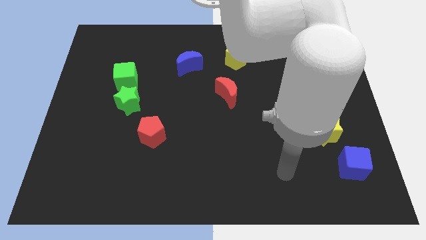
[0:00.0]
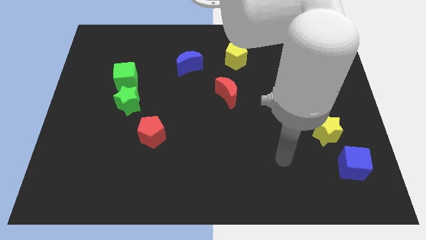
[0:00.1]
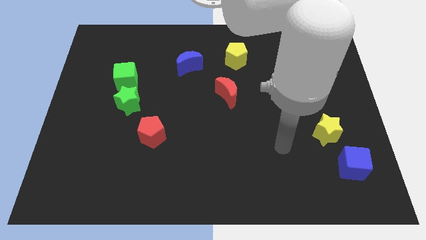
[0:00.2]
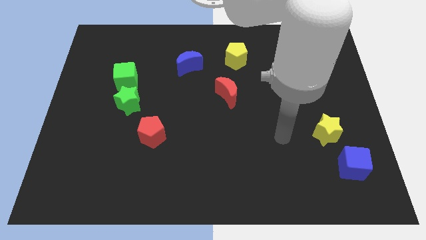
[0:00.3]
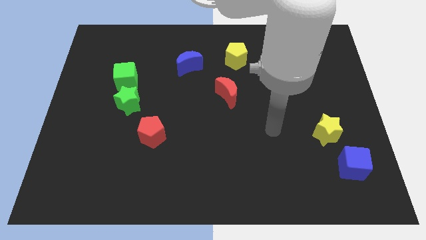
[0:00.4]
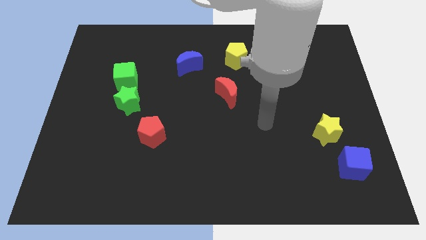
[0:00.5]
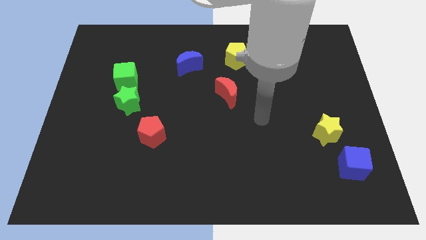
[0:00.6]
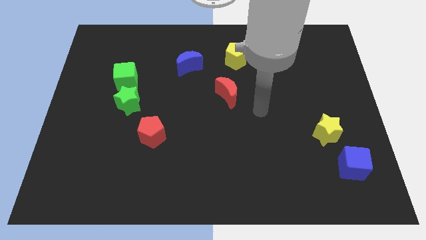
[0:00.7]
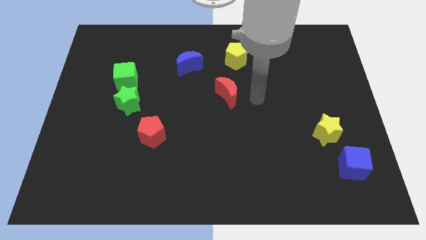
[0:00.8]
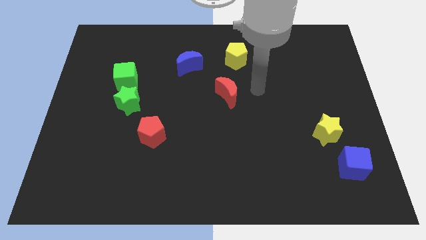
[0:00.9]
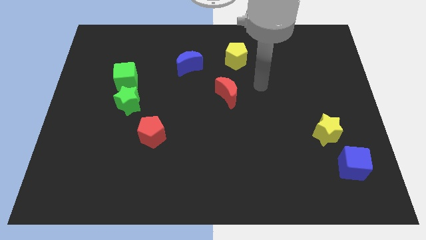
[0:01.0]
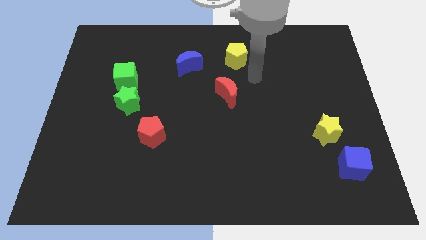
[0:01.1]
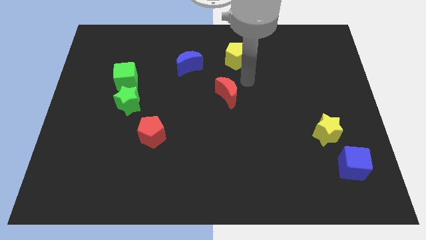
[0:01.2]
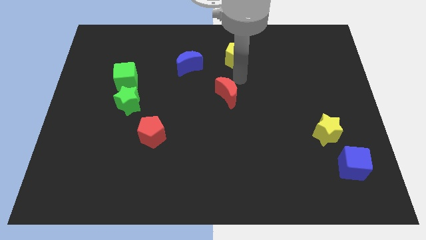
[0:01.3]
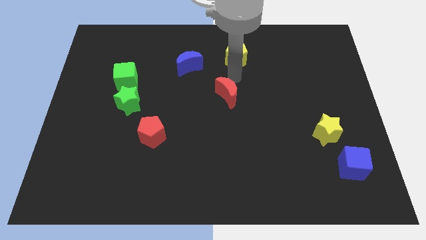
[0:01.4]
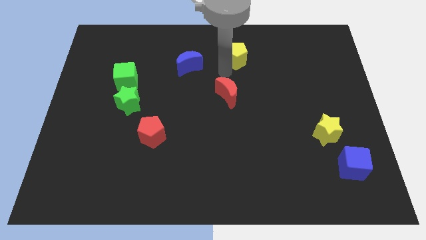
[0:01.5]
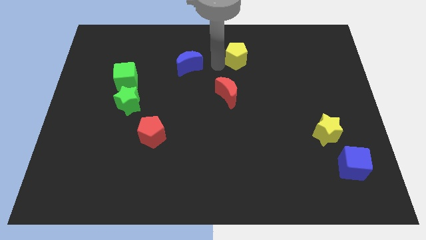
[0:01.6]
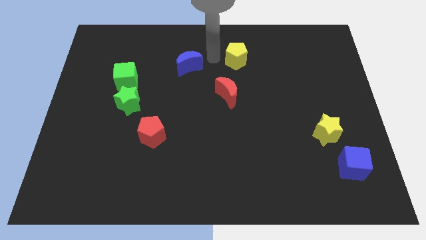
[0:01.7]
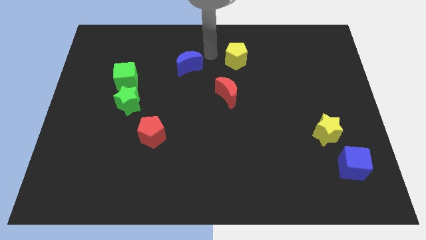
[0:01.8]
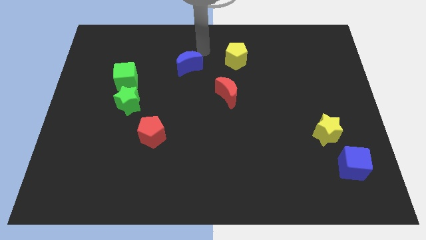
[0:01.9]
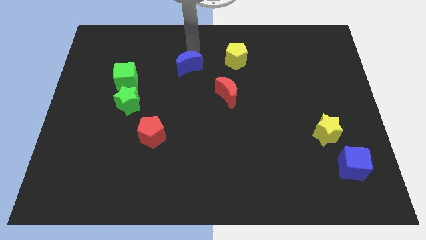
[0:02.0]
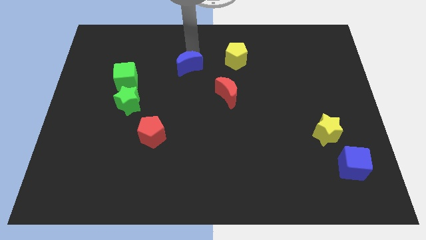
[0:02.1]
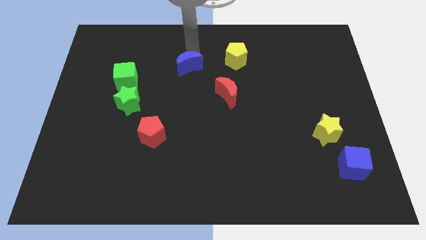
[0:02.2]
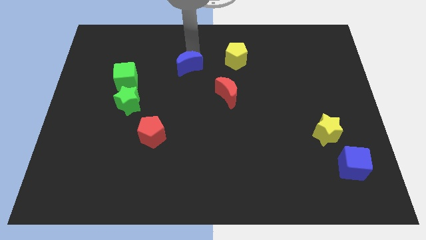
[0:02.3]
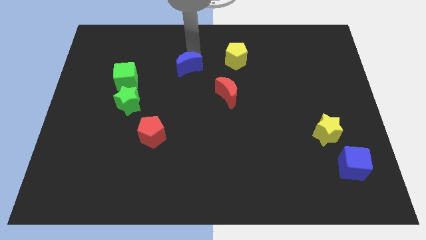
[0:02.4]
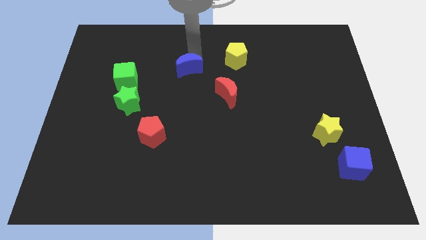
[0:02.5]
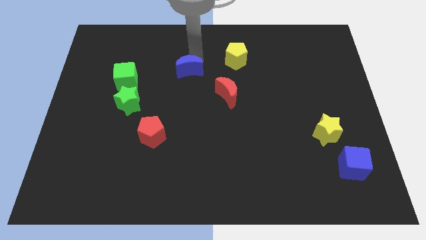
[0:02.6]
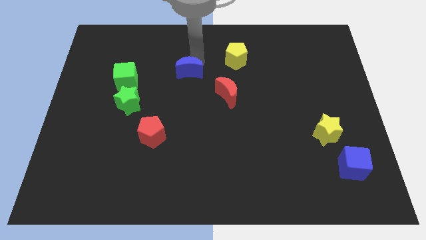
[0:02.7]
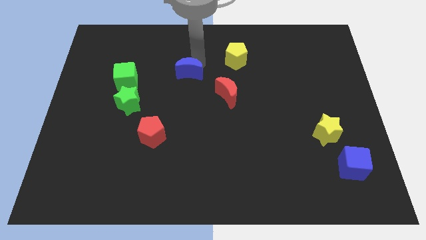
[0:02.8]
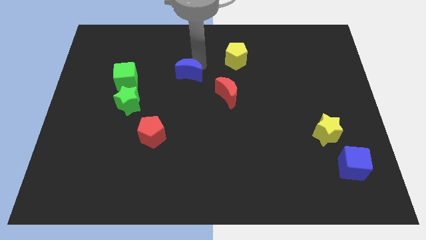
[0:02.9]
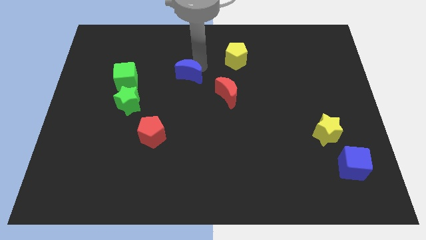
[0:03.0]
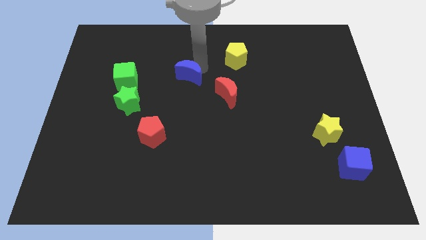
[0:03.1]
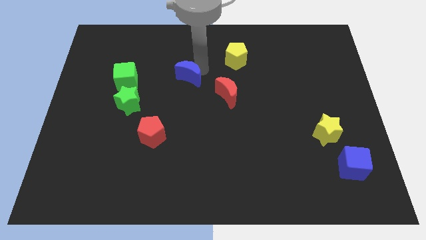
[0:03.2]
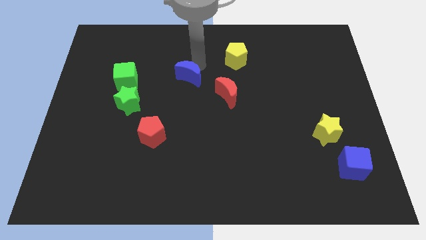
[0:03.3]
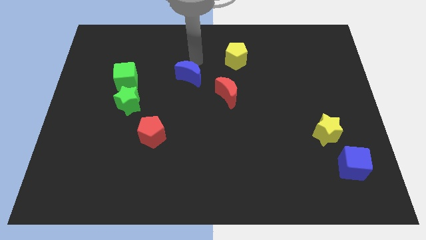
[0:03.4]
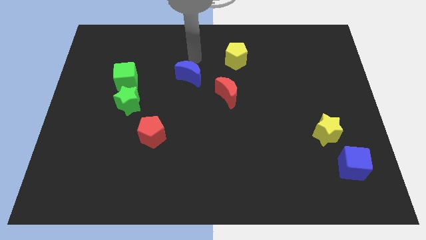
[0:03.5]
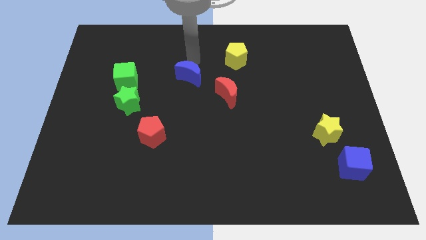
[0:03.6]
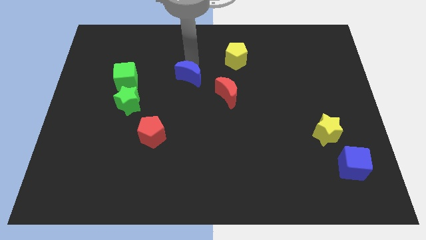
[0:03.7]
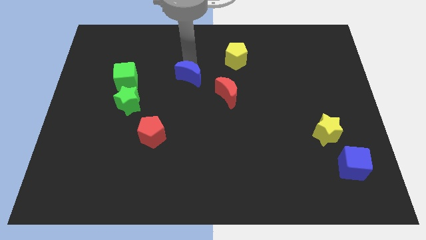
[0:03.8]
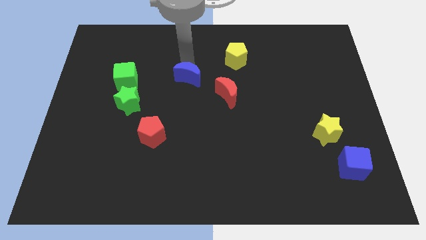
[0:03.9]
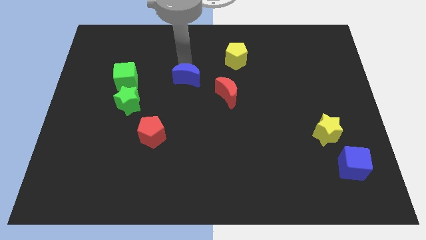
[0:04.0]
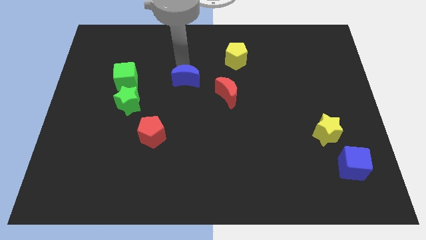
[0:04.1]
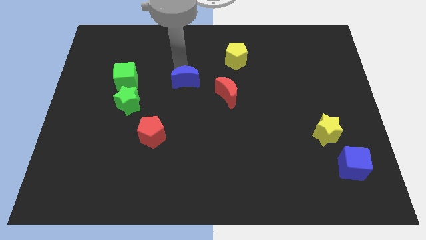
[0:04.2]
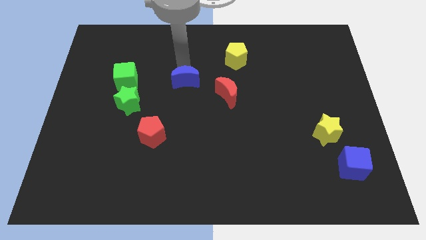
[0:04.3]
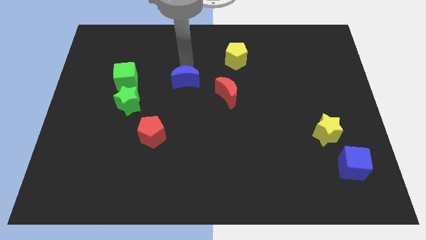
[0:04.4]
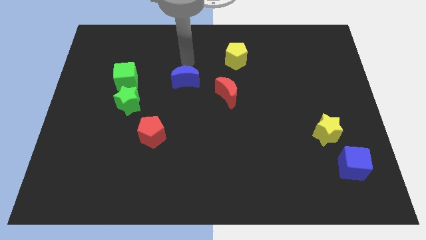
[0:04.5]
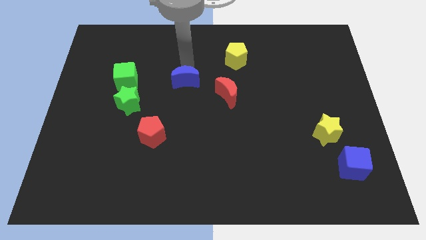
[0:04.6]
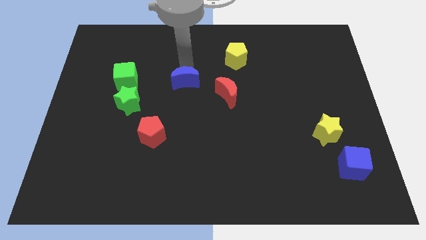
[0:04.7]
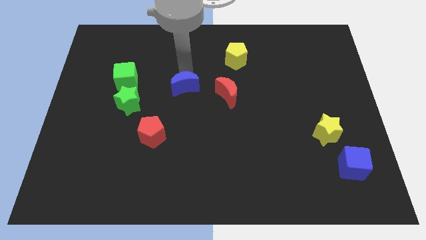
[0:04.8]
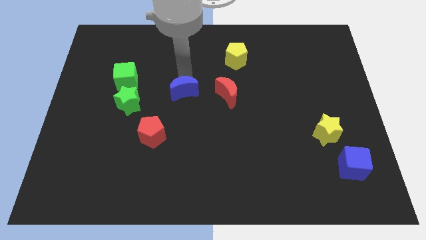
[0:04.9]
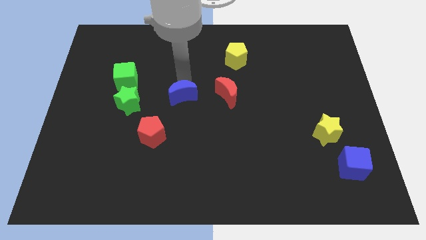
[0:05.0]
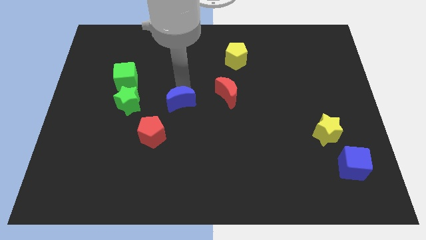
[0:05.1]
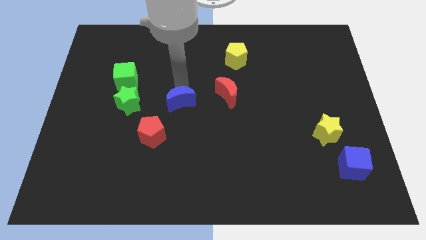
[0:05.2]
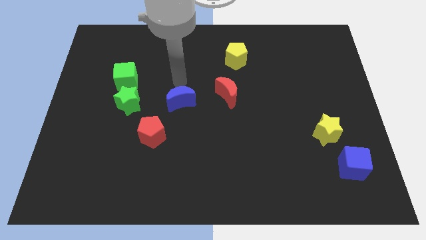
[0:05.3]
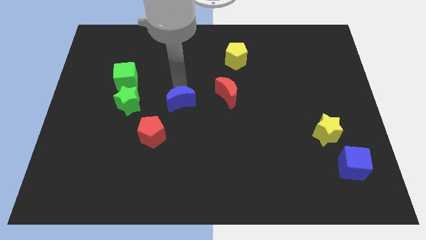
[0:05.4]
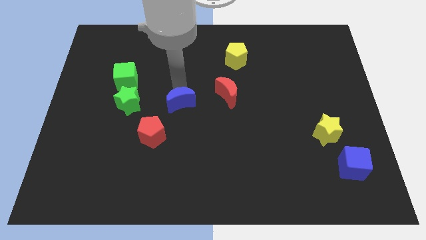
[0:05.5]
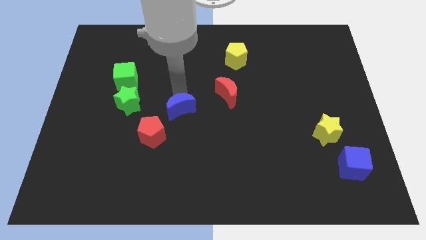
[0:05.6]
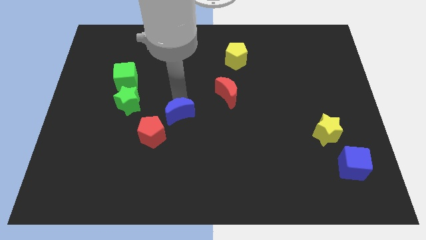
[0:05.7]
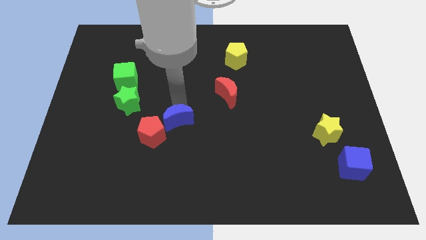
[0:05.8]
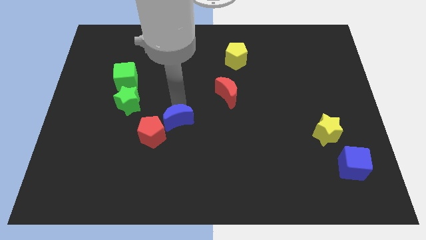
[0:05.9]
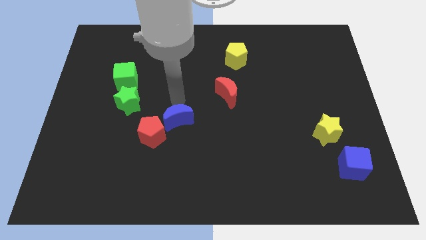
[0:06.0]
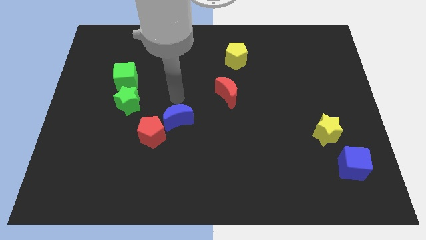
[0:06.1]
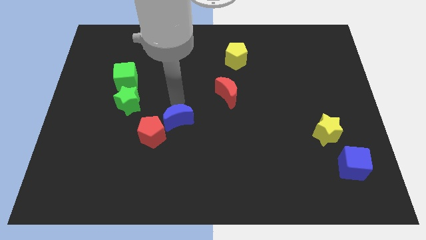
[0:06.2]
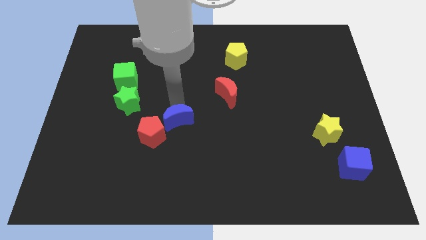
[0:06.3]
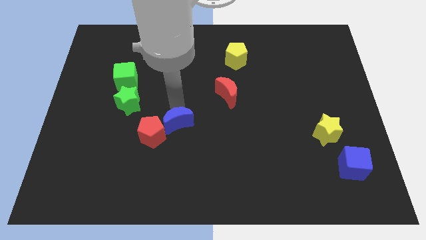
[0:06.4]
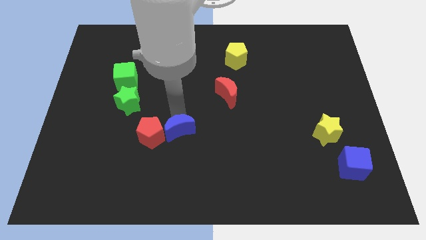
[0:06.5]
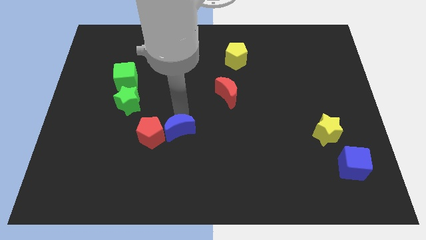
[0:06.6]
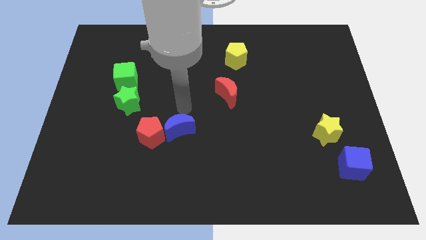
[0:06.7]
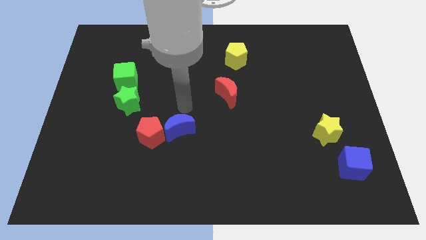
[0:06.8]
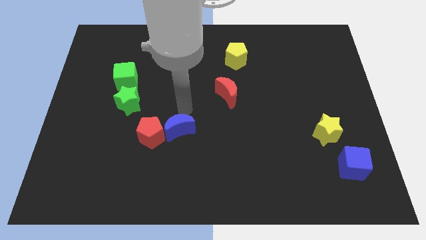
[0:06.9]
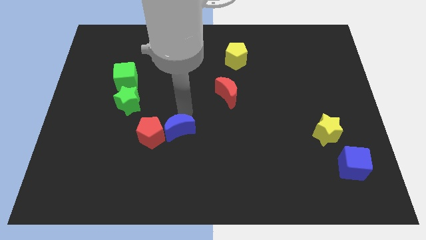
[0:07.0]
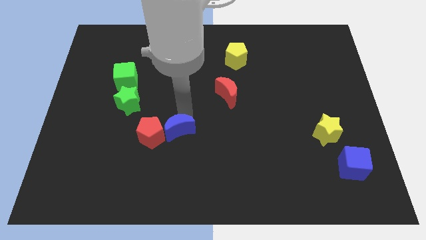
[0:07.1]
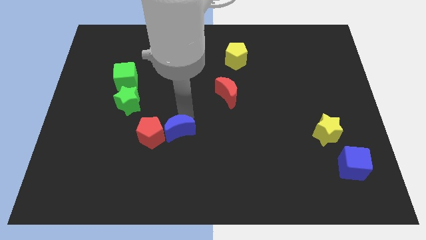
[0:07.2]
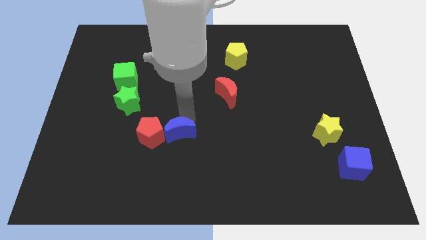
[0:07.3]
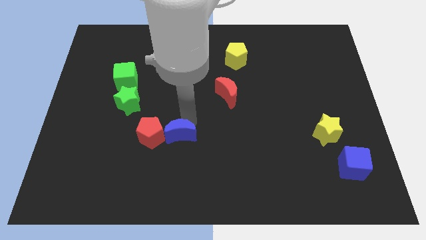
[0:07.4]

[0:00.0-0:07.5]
put the blue moon to the bottom right of the red pentagon
